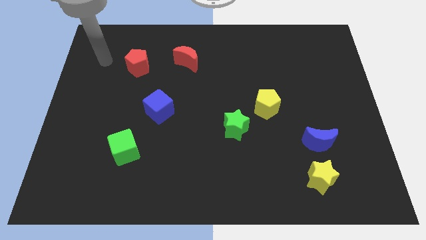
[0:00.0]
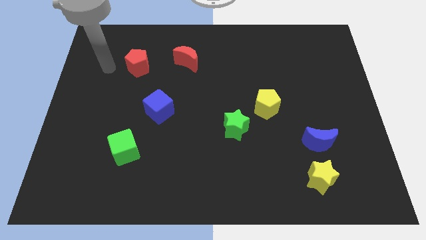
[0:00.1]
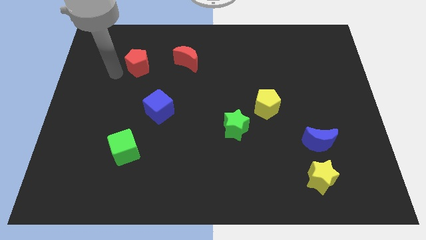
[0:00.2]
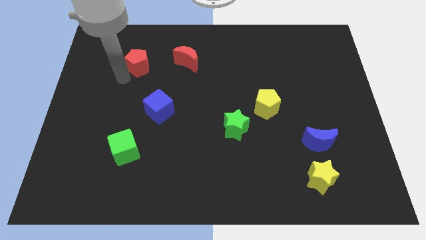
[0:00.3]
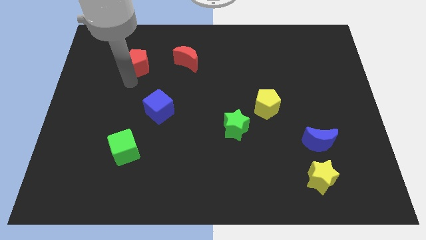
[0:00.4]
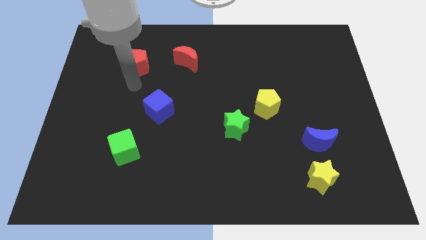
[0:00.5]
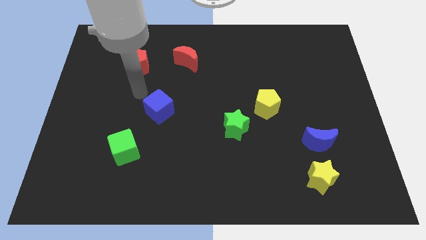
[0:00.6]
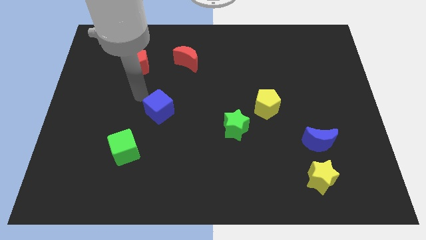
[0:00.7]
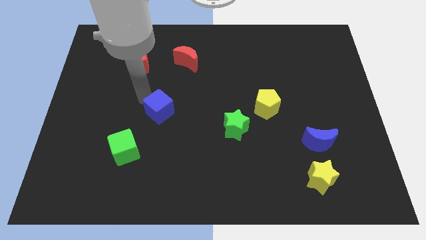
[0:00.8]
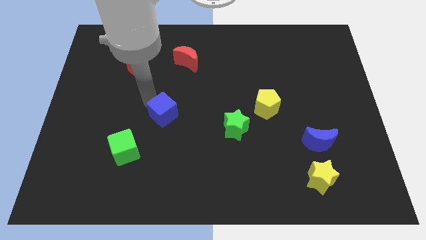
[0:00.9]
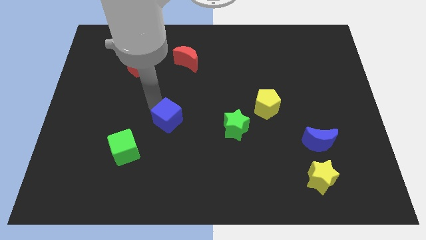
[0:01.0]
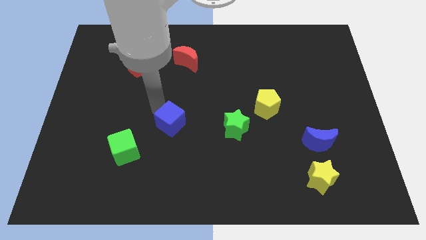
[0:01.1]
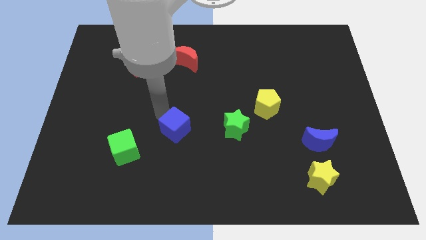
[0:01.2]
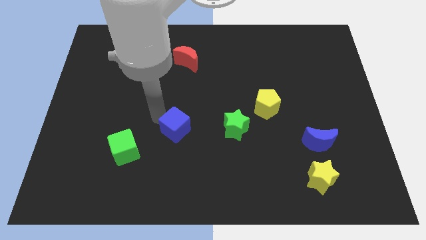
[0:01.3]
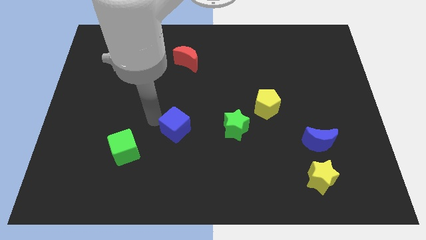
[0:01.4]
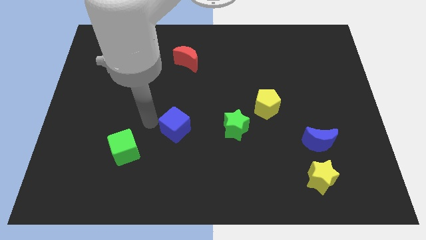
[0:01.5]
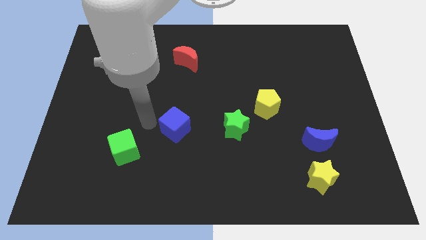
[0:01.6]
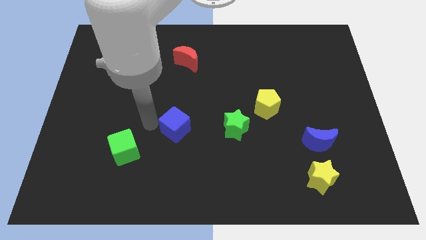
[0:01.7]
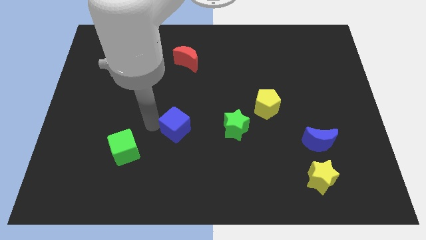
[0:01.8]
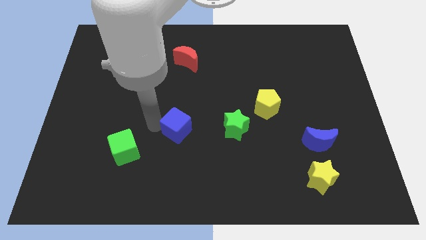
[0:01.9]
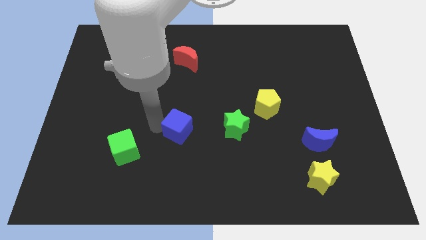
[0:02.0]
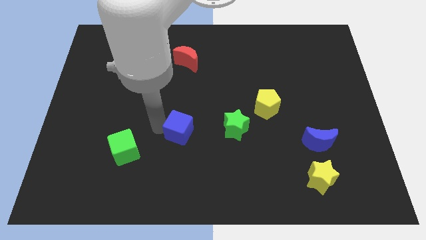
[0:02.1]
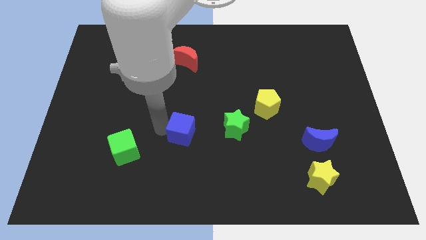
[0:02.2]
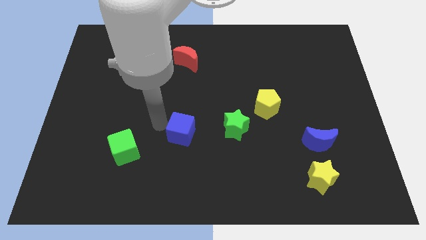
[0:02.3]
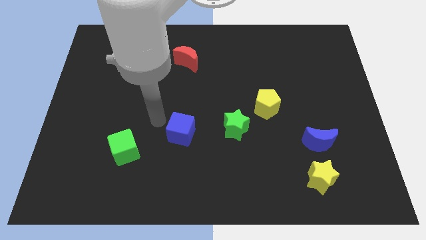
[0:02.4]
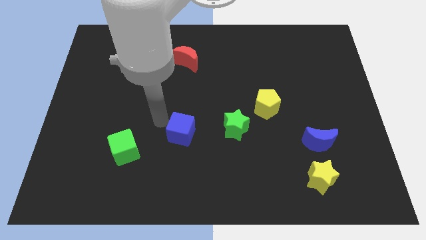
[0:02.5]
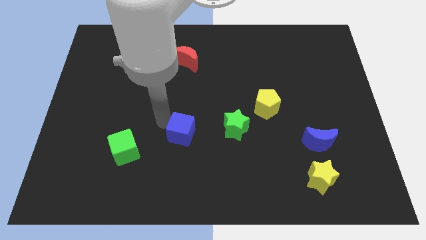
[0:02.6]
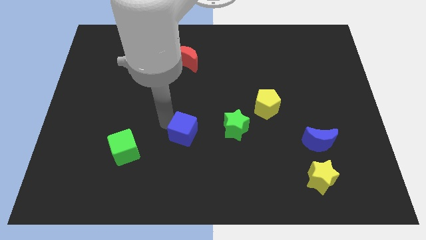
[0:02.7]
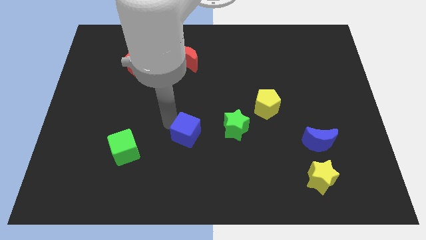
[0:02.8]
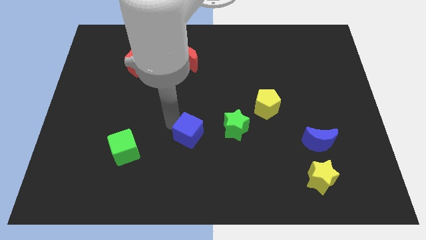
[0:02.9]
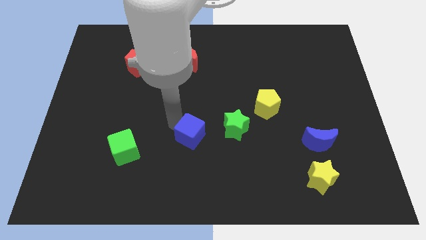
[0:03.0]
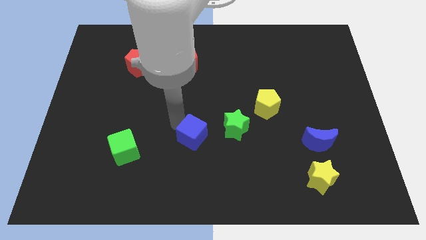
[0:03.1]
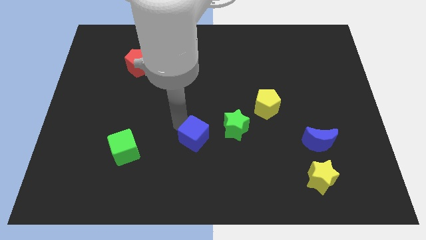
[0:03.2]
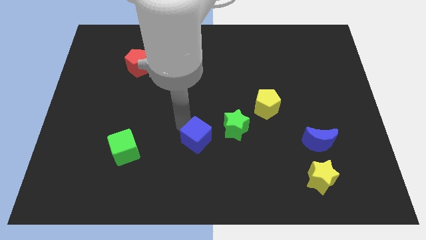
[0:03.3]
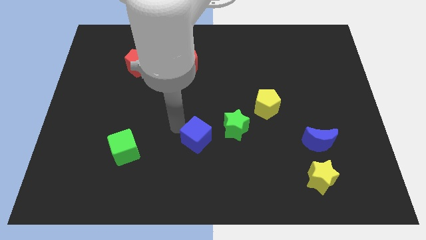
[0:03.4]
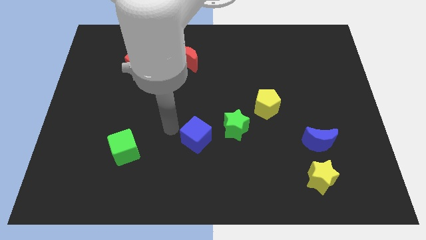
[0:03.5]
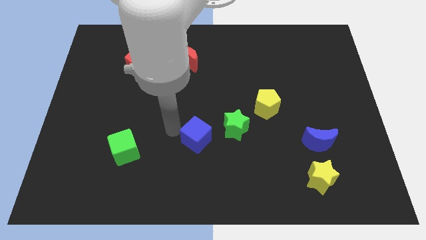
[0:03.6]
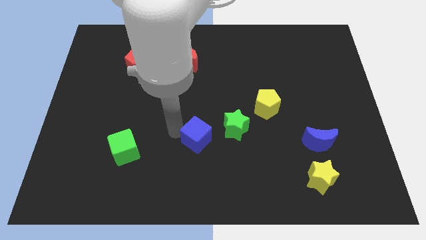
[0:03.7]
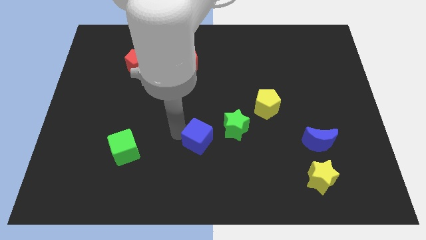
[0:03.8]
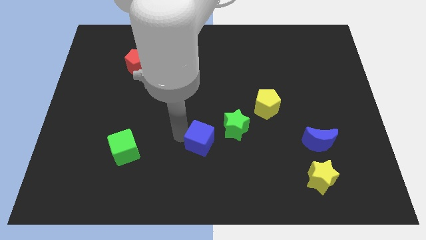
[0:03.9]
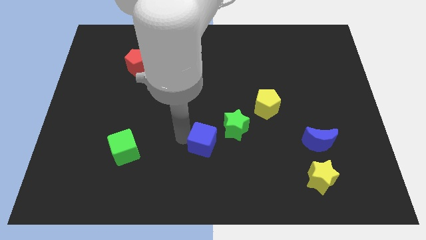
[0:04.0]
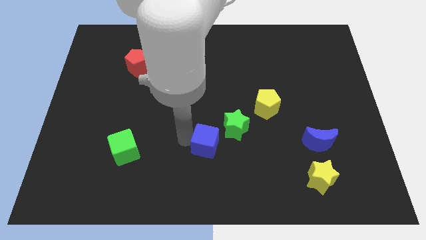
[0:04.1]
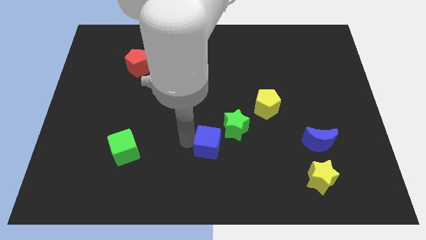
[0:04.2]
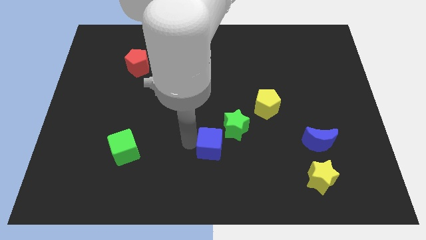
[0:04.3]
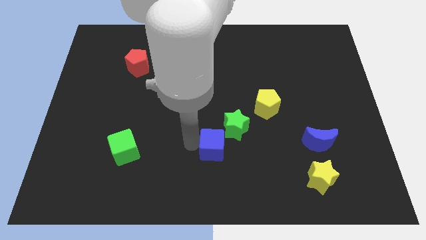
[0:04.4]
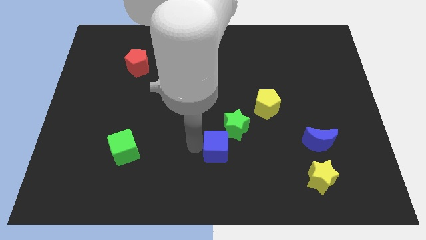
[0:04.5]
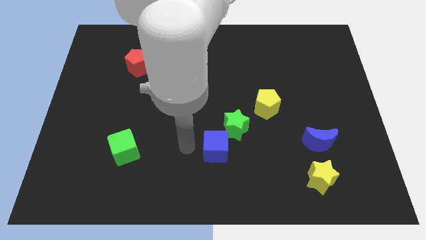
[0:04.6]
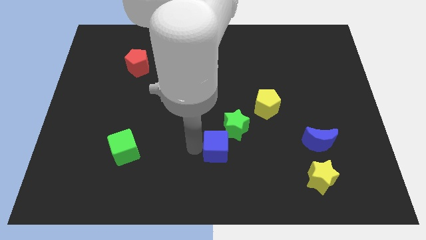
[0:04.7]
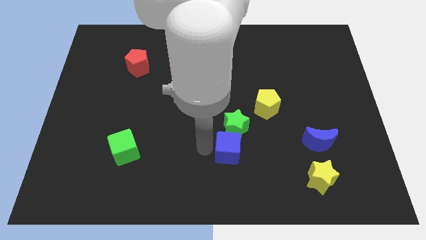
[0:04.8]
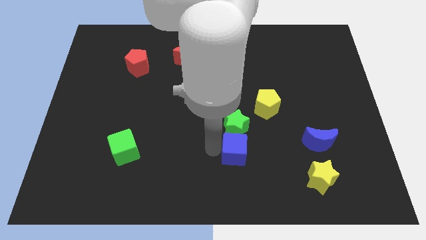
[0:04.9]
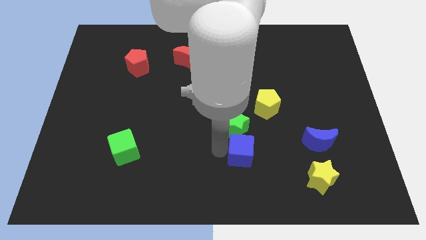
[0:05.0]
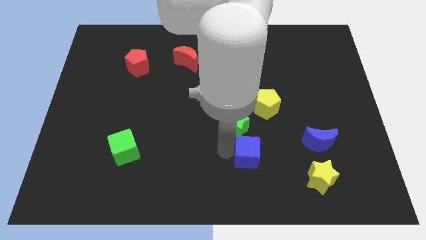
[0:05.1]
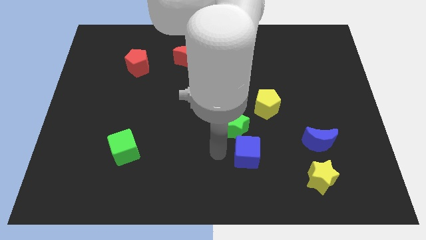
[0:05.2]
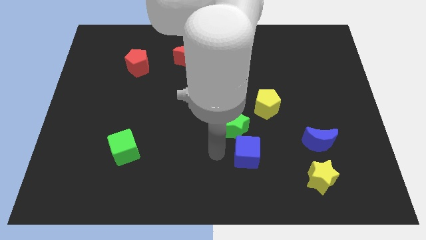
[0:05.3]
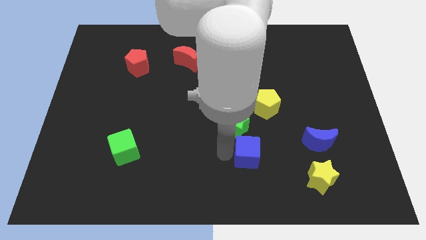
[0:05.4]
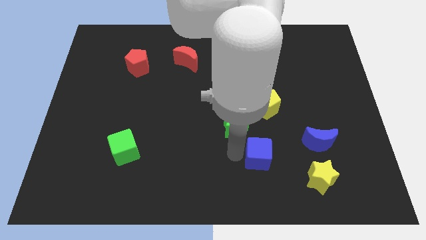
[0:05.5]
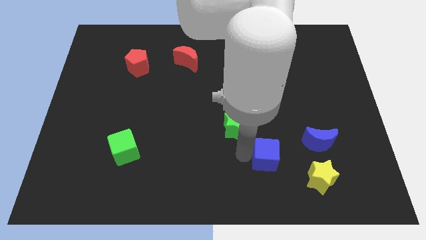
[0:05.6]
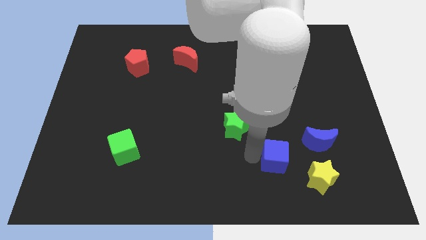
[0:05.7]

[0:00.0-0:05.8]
put the blue cube to the top left side of the yellow star

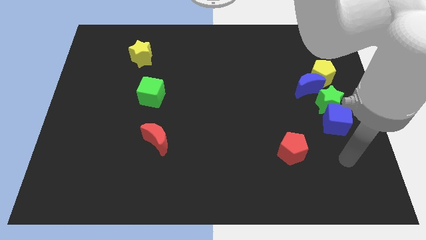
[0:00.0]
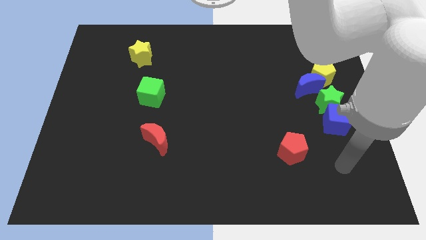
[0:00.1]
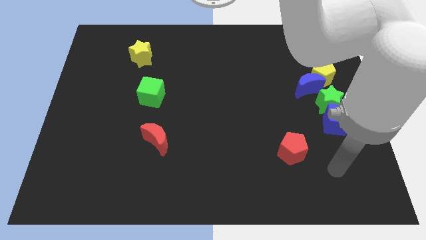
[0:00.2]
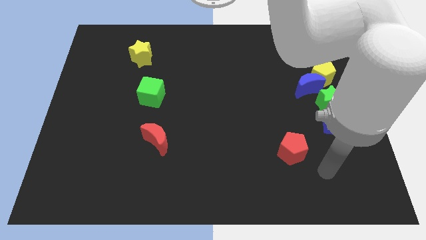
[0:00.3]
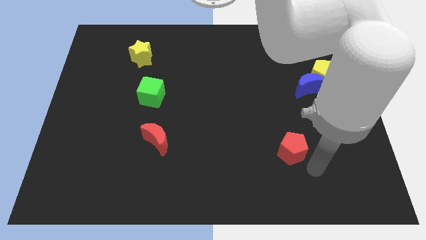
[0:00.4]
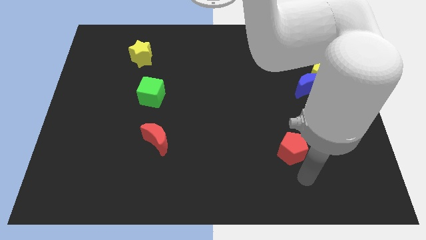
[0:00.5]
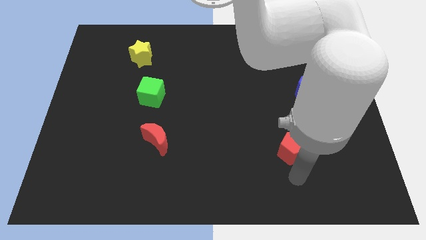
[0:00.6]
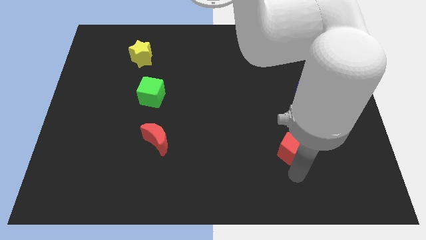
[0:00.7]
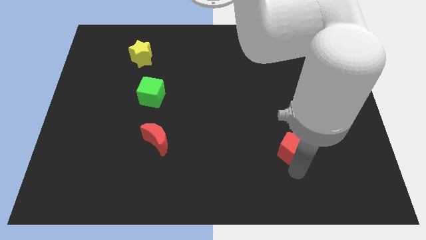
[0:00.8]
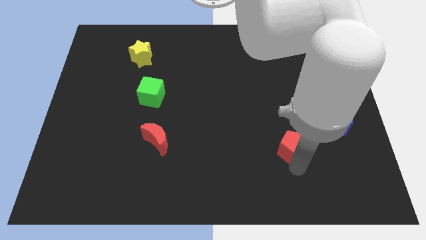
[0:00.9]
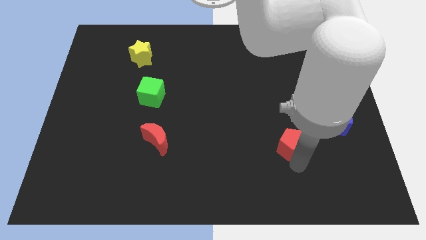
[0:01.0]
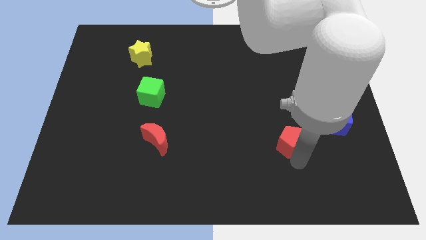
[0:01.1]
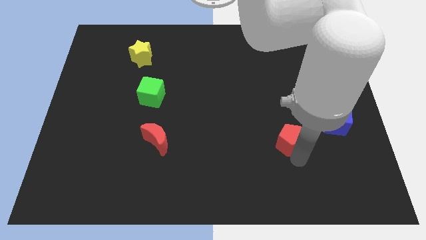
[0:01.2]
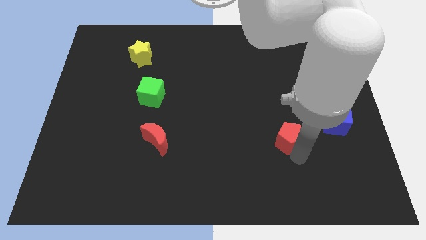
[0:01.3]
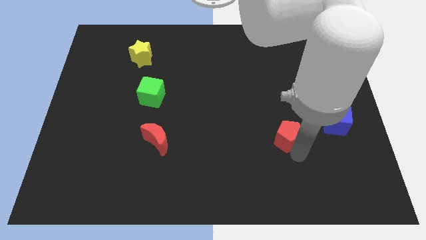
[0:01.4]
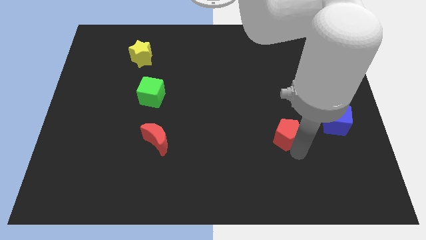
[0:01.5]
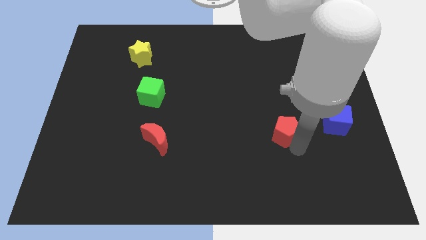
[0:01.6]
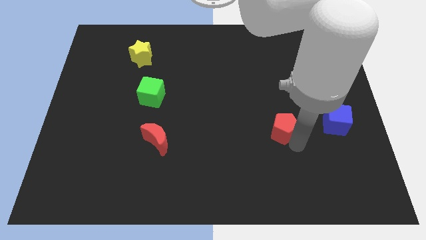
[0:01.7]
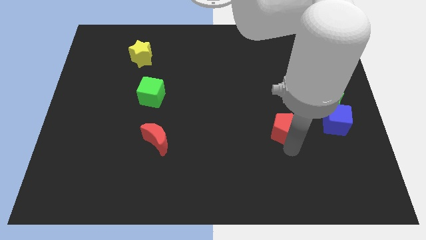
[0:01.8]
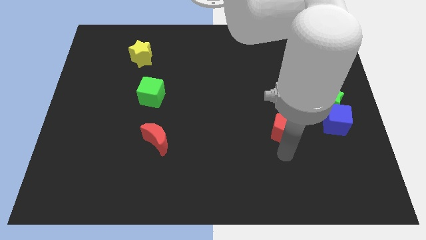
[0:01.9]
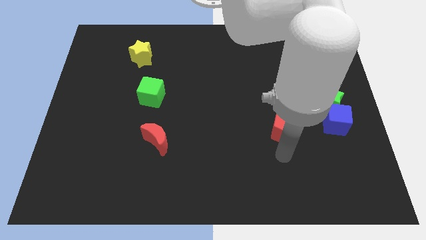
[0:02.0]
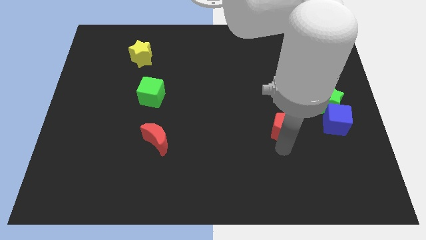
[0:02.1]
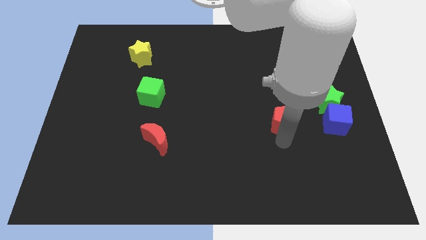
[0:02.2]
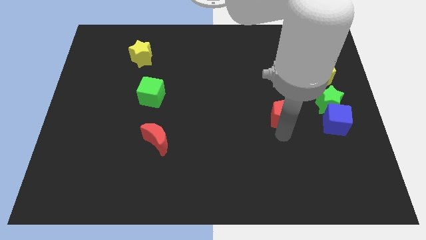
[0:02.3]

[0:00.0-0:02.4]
put the red pentagon to the left of the green star
